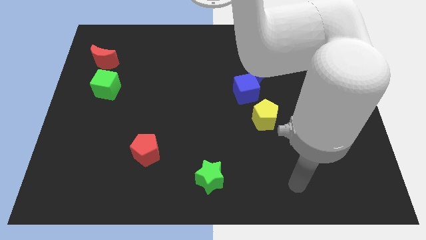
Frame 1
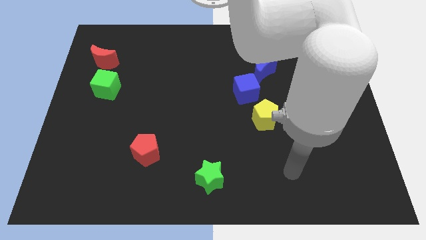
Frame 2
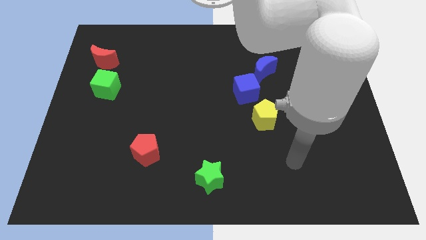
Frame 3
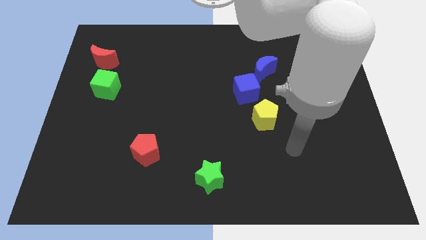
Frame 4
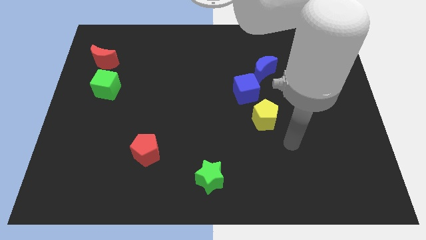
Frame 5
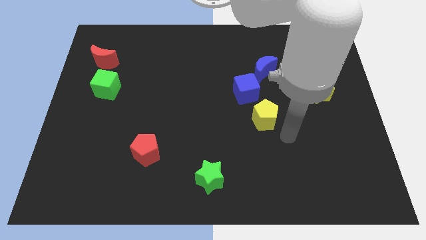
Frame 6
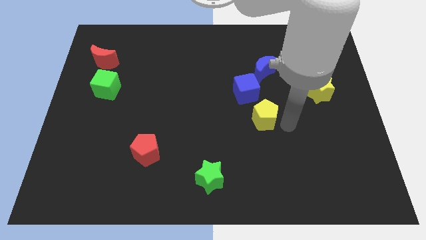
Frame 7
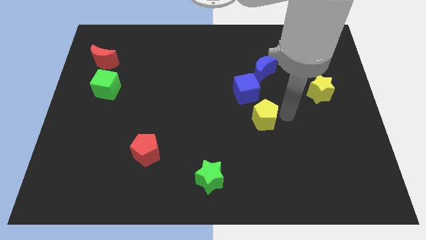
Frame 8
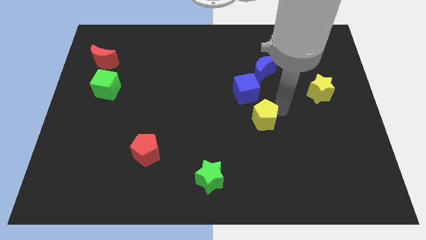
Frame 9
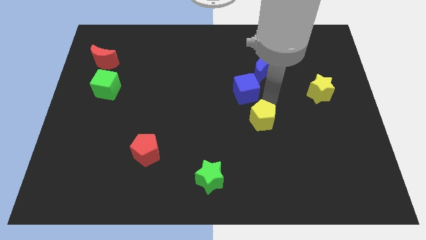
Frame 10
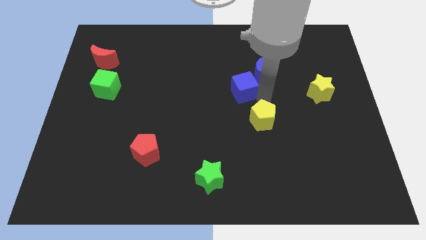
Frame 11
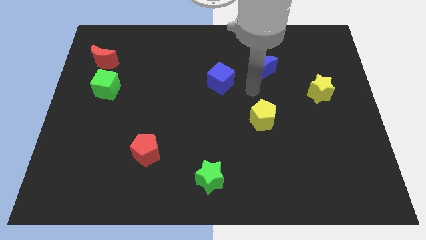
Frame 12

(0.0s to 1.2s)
move the blue moon away from the blue cube

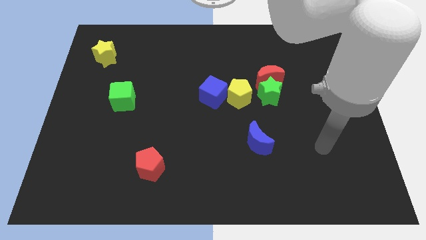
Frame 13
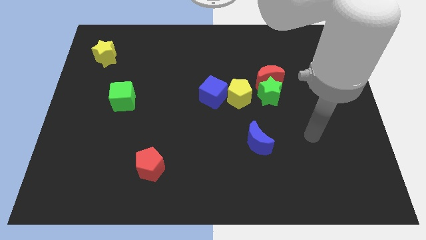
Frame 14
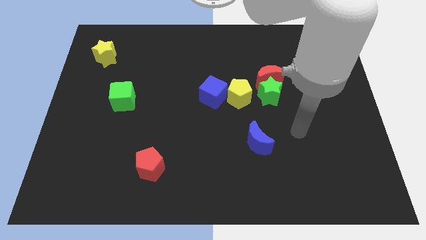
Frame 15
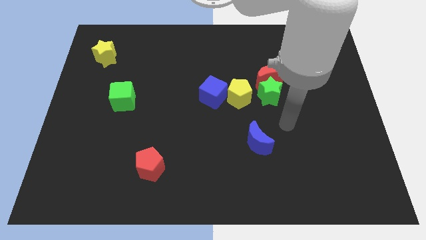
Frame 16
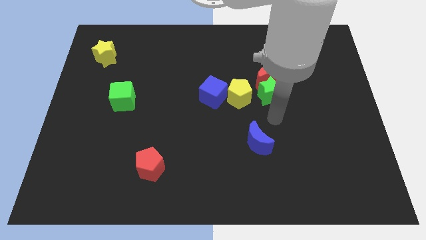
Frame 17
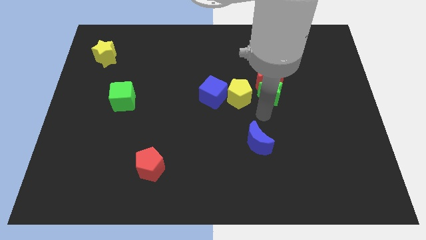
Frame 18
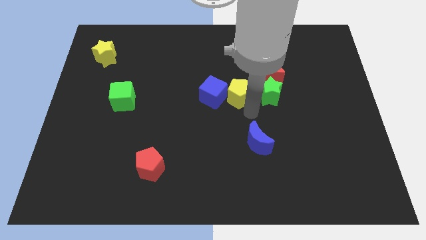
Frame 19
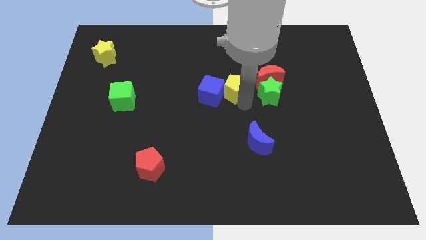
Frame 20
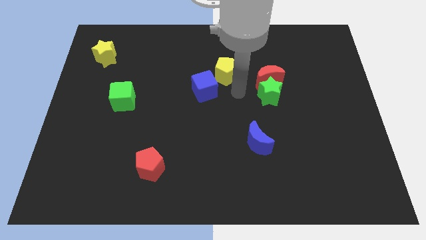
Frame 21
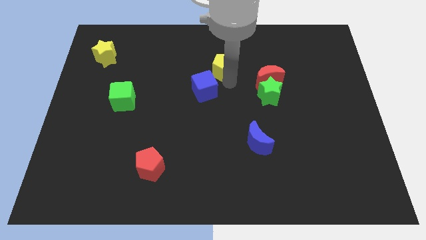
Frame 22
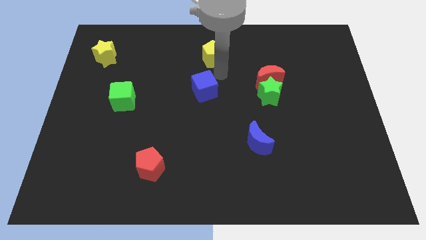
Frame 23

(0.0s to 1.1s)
move the blue cube away from the yellow pentagon

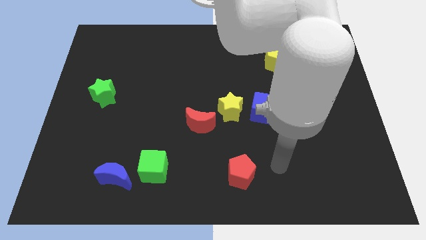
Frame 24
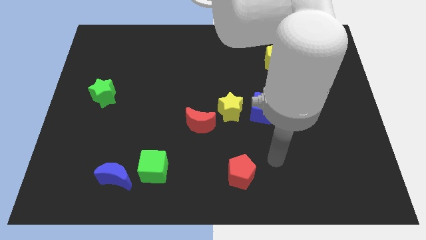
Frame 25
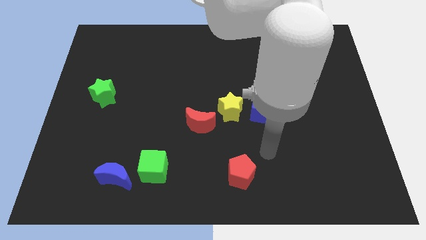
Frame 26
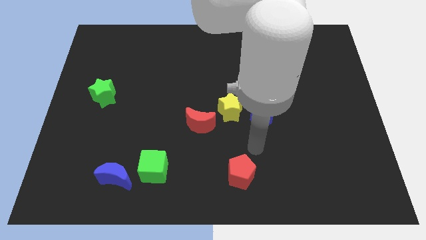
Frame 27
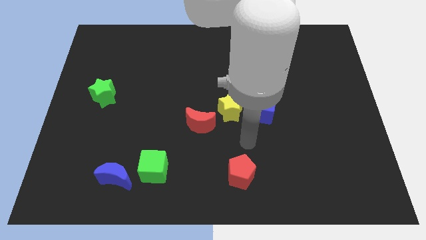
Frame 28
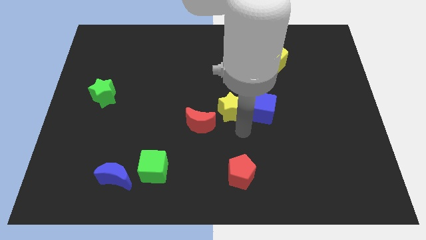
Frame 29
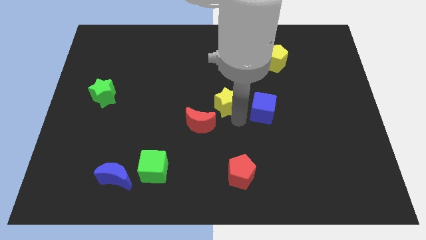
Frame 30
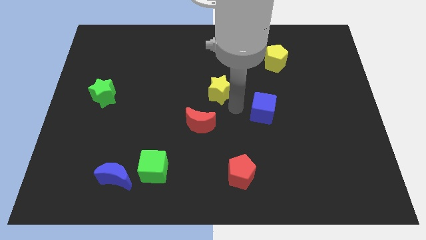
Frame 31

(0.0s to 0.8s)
pull the blue cube apart from the yellow star

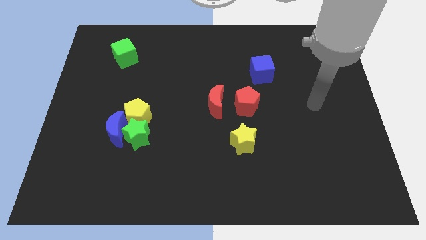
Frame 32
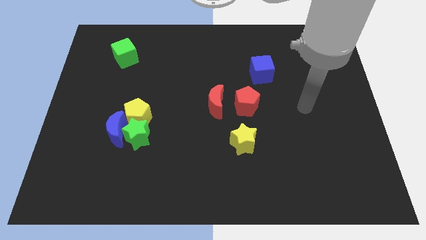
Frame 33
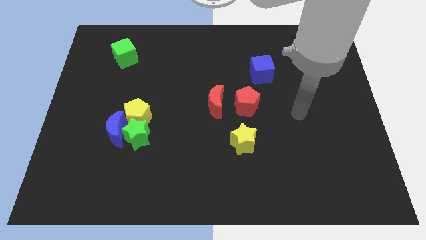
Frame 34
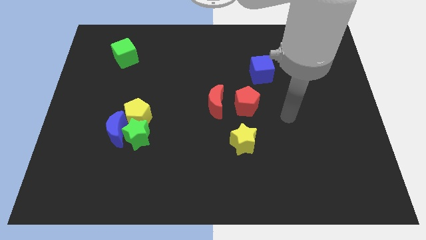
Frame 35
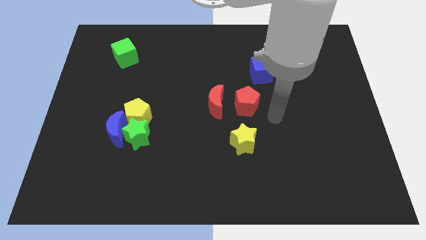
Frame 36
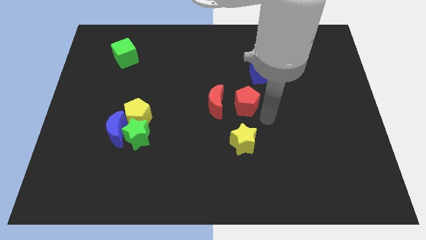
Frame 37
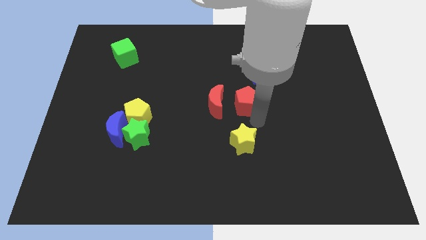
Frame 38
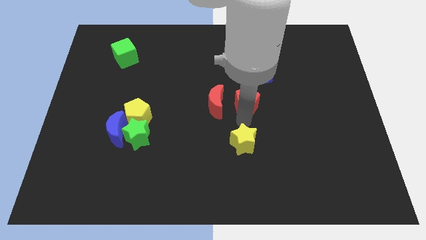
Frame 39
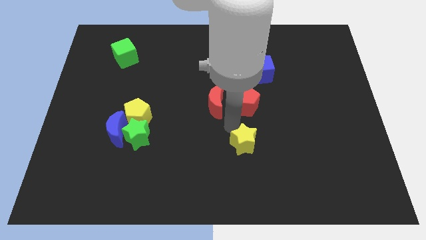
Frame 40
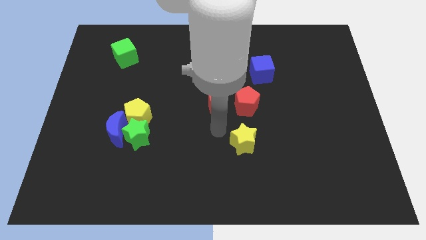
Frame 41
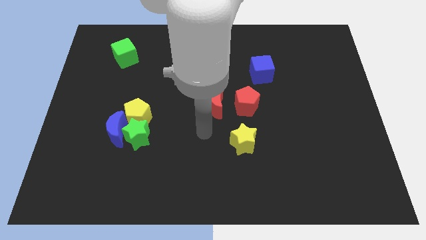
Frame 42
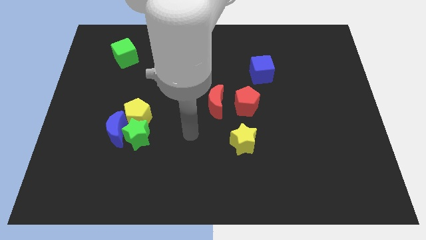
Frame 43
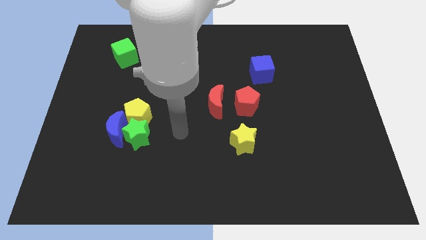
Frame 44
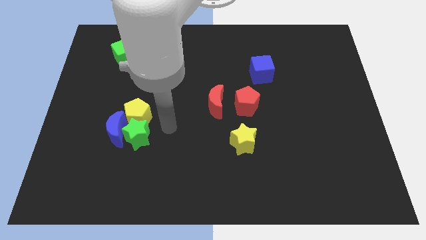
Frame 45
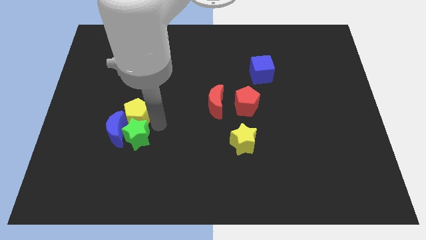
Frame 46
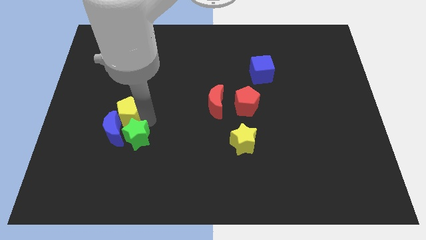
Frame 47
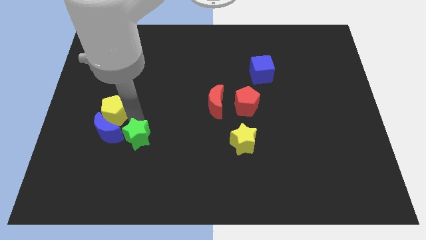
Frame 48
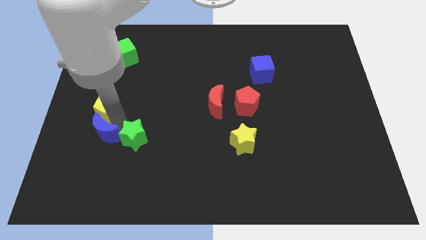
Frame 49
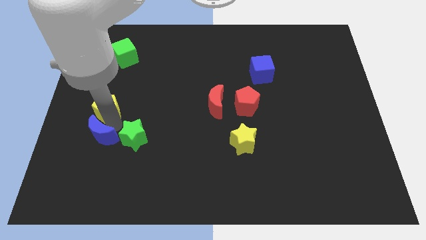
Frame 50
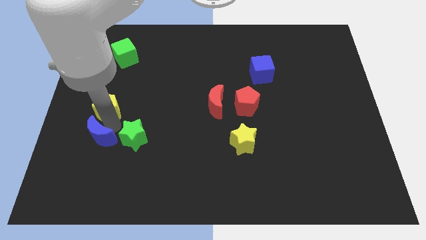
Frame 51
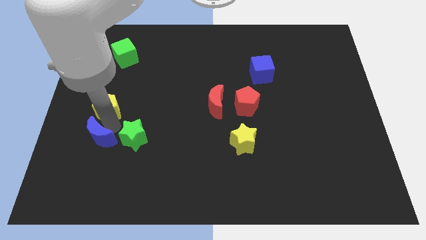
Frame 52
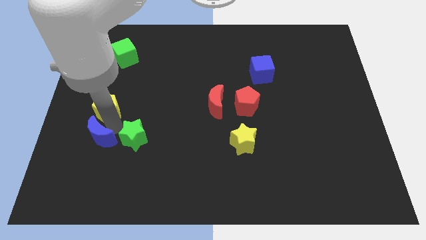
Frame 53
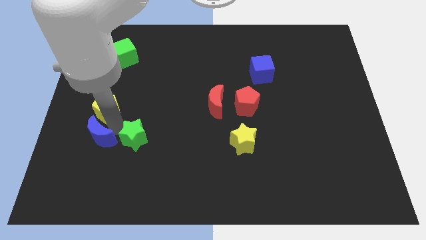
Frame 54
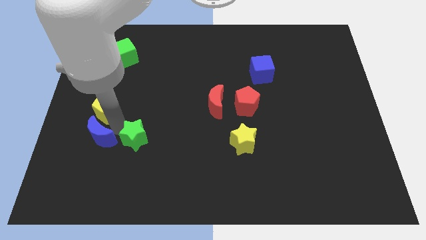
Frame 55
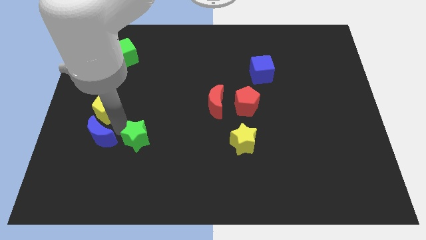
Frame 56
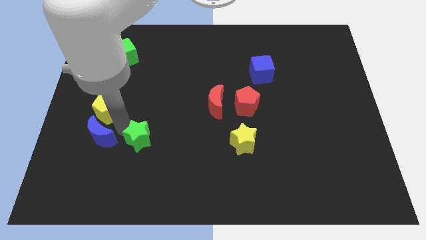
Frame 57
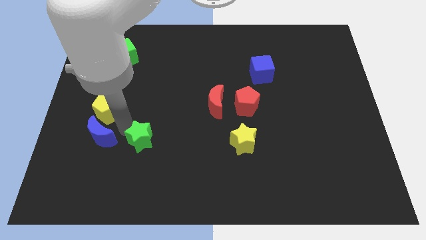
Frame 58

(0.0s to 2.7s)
separate the green star from the blue moon and yellow pentagon

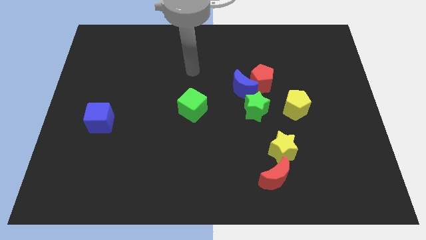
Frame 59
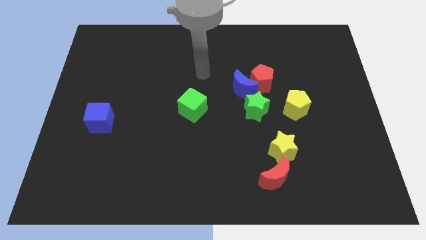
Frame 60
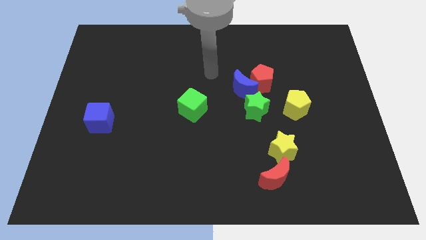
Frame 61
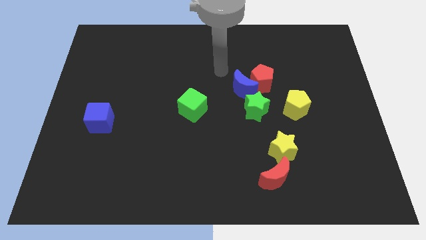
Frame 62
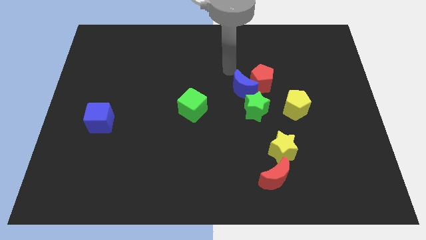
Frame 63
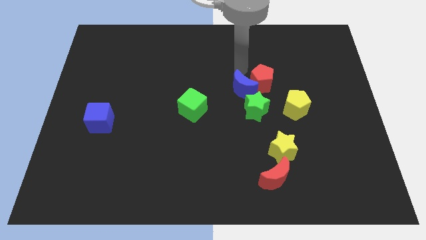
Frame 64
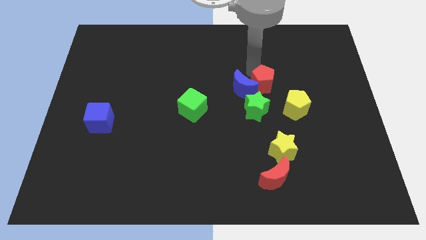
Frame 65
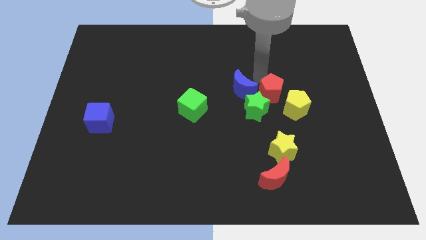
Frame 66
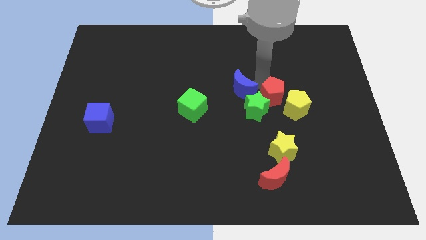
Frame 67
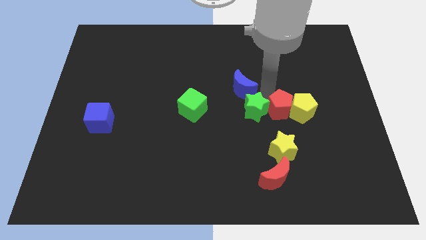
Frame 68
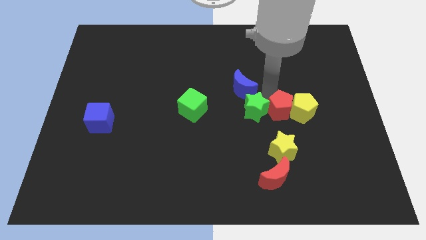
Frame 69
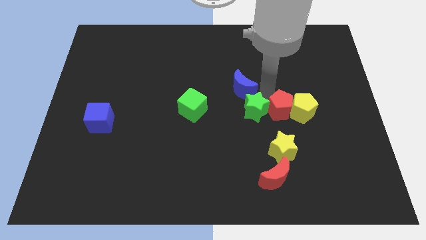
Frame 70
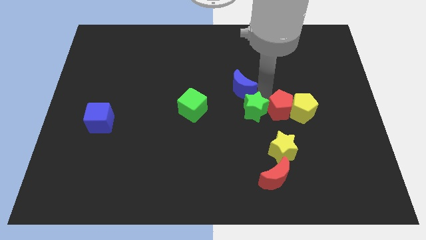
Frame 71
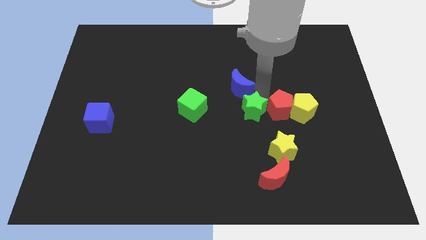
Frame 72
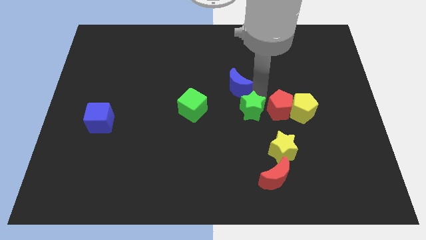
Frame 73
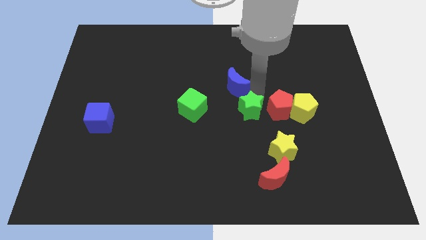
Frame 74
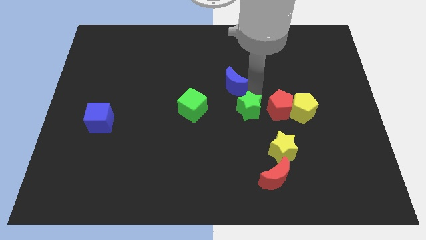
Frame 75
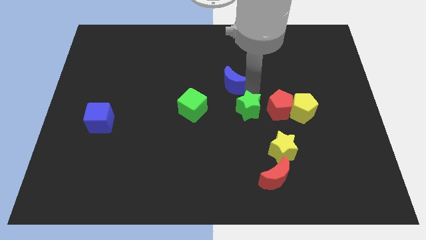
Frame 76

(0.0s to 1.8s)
move the blue moon away from the red pentagon and green star

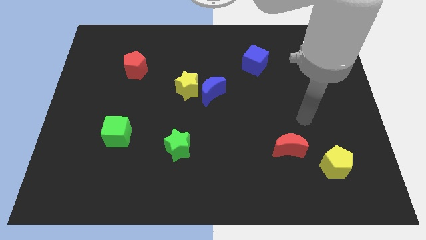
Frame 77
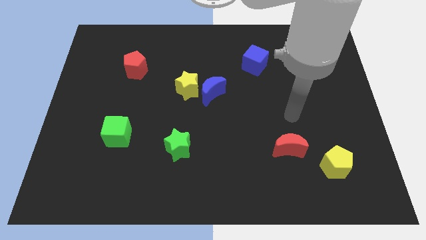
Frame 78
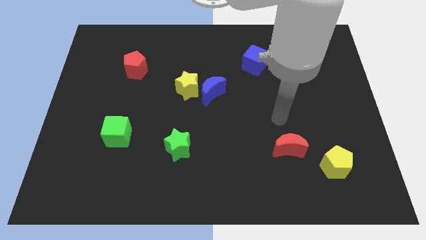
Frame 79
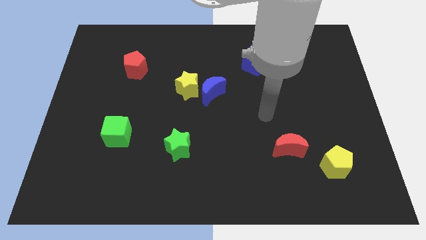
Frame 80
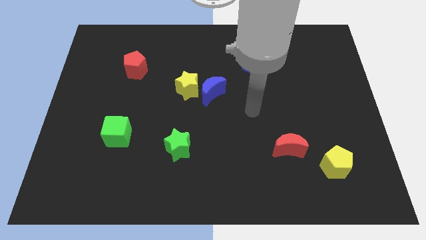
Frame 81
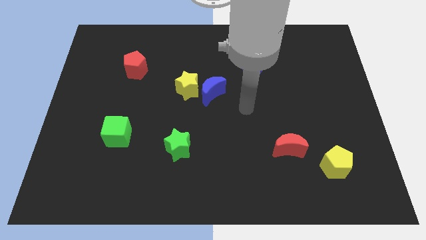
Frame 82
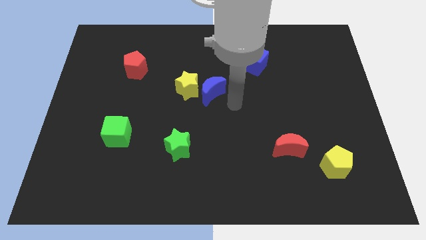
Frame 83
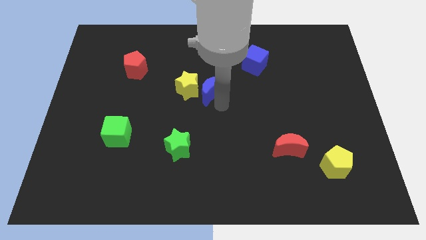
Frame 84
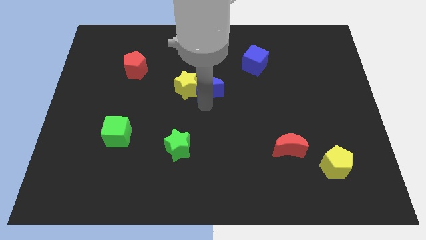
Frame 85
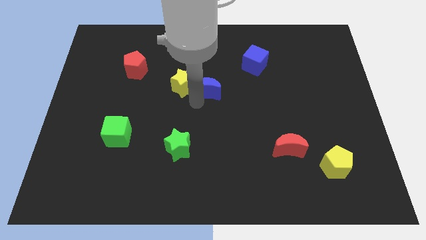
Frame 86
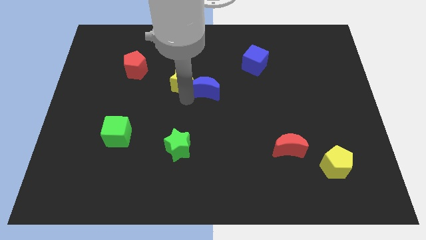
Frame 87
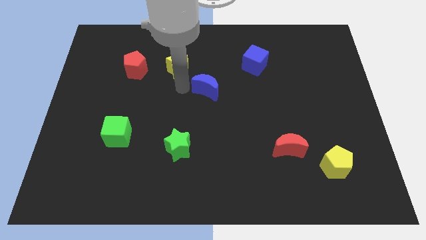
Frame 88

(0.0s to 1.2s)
move the blue moon away from the yellow star

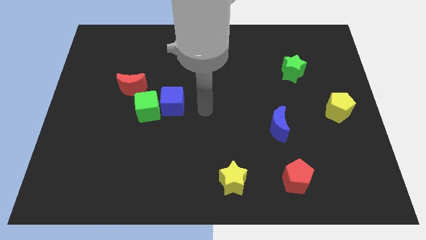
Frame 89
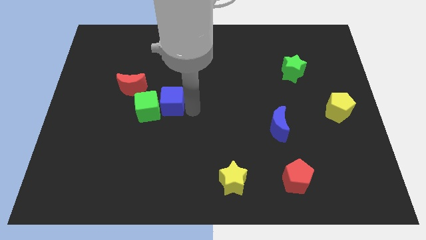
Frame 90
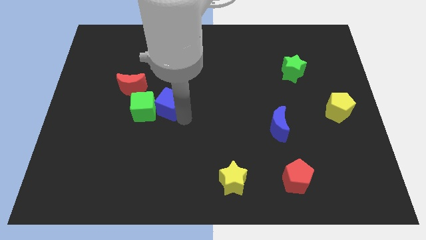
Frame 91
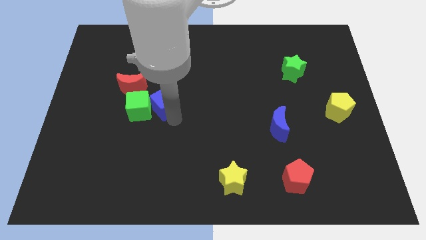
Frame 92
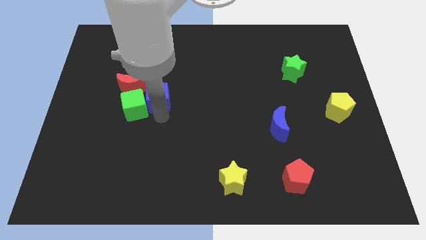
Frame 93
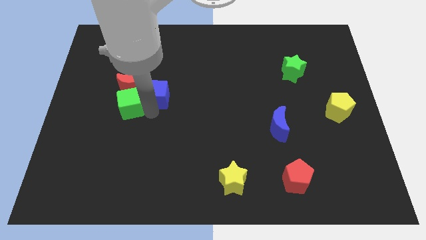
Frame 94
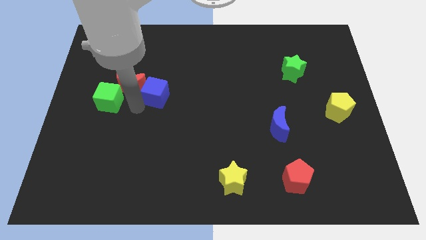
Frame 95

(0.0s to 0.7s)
pull the blue cube apart from the green cube

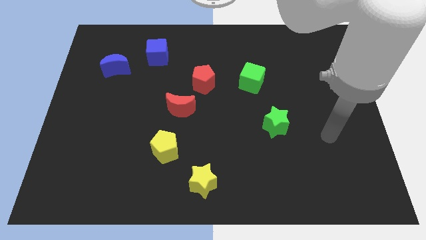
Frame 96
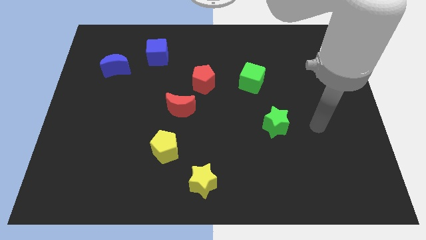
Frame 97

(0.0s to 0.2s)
pull the red moon apart from the red pentagon
